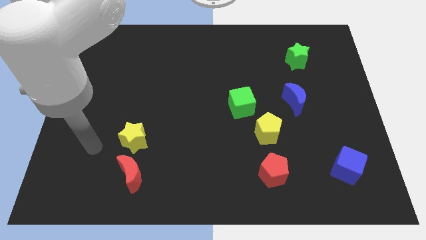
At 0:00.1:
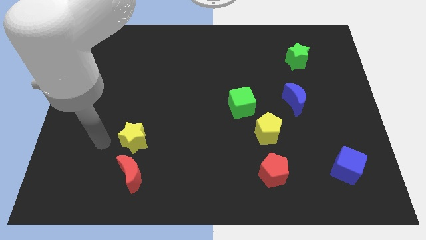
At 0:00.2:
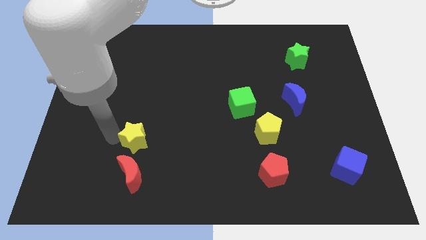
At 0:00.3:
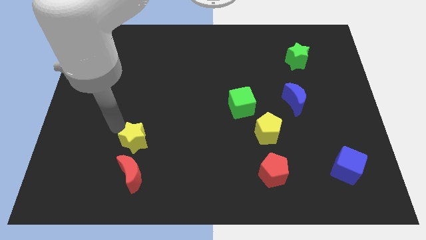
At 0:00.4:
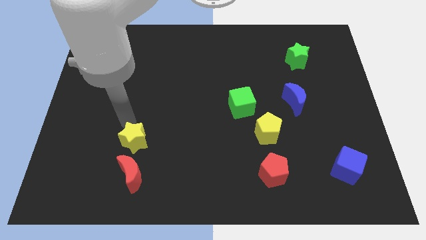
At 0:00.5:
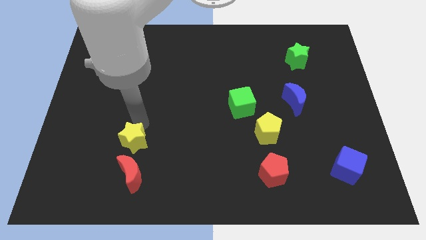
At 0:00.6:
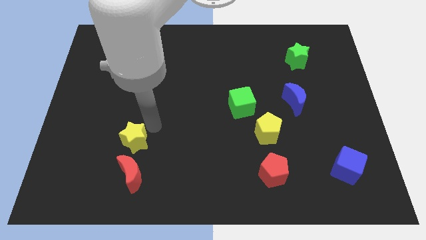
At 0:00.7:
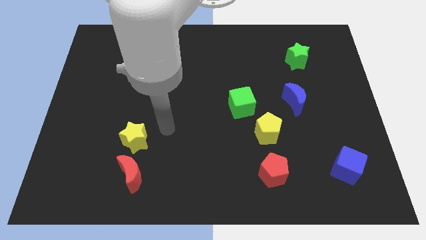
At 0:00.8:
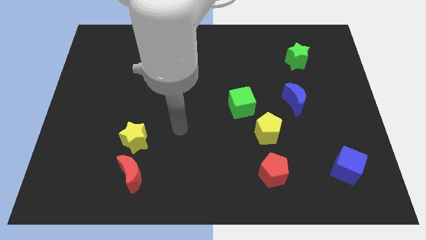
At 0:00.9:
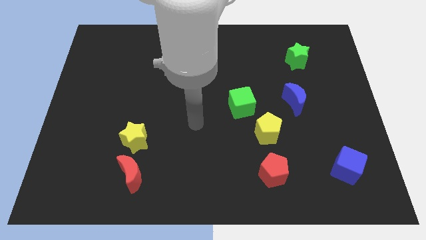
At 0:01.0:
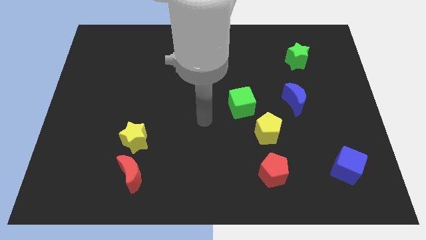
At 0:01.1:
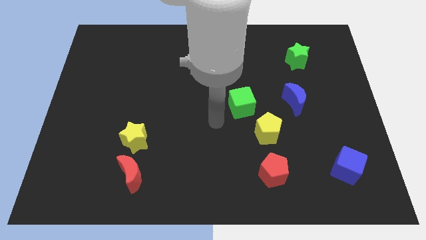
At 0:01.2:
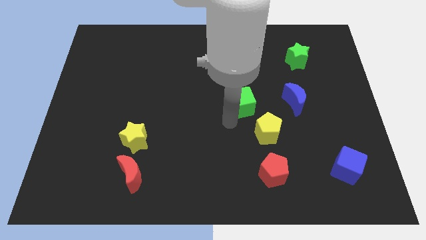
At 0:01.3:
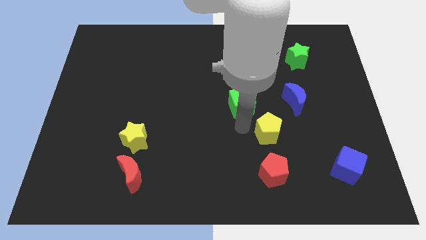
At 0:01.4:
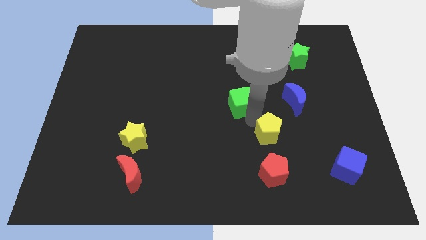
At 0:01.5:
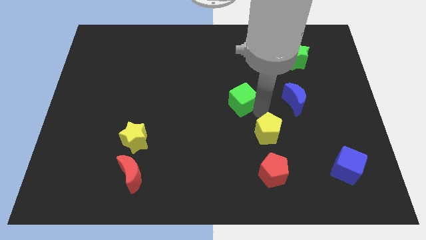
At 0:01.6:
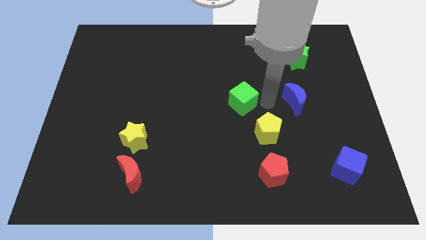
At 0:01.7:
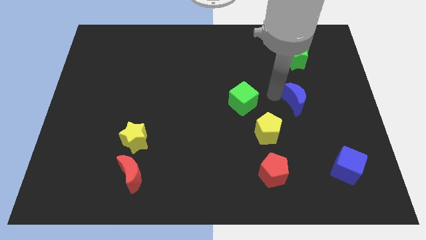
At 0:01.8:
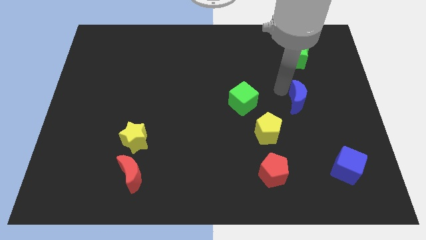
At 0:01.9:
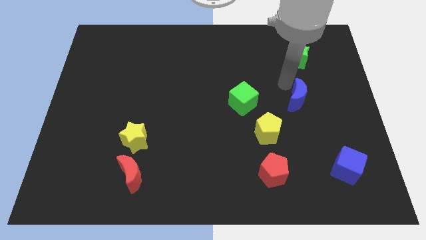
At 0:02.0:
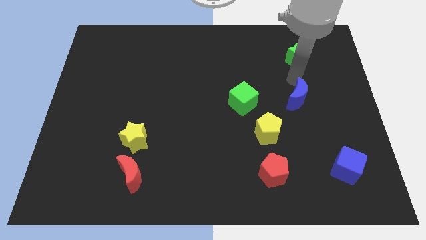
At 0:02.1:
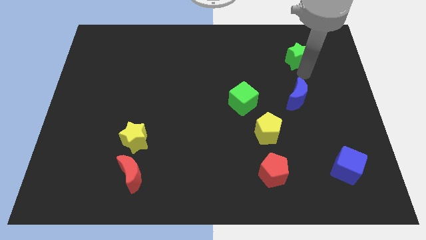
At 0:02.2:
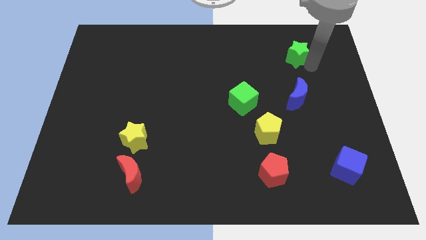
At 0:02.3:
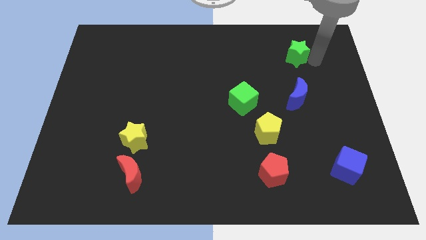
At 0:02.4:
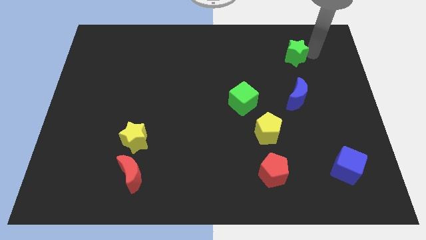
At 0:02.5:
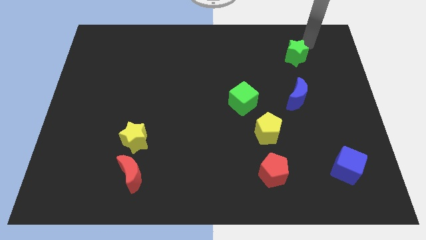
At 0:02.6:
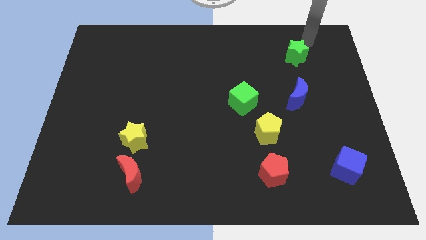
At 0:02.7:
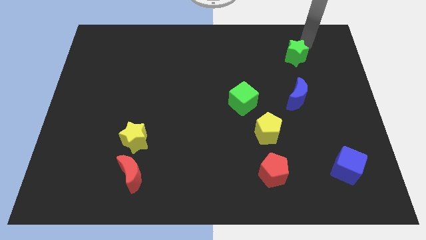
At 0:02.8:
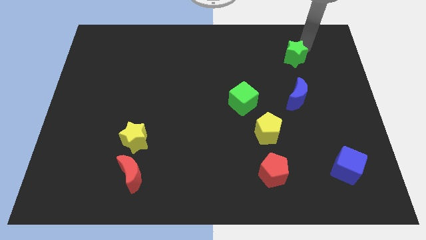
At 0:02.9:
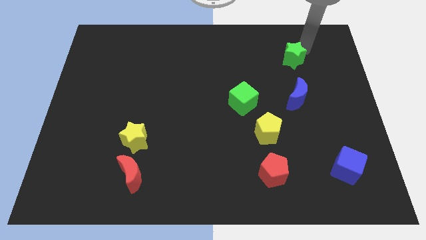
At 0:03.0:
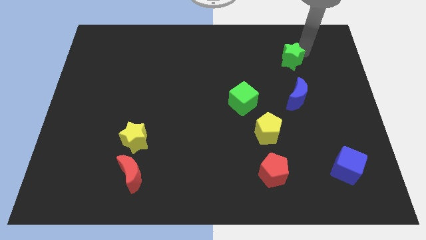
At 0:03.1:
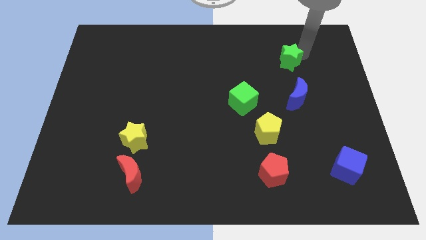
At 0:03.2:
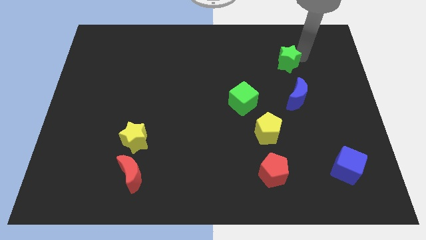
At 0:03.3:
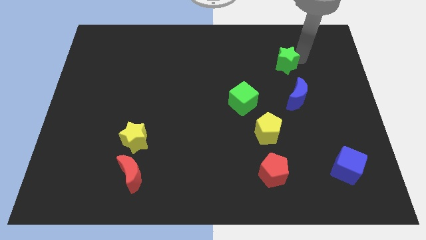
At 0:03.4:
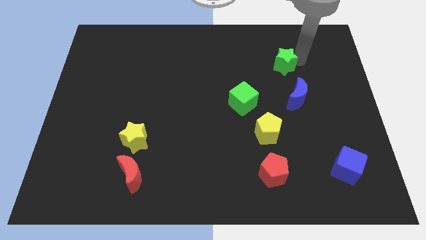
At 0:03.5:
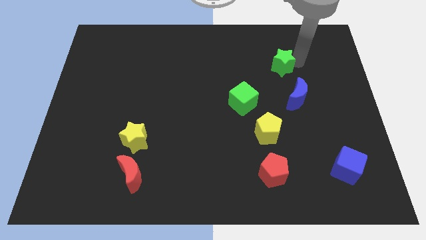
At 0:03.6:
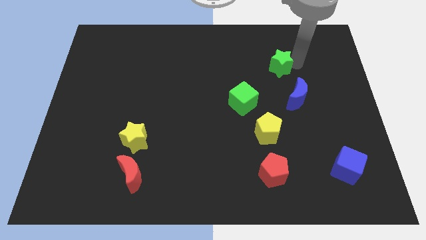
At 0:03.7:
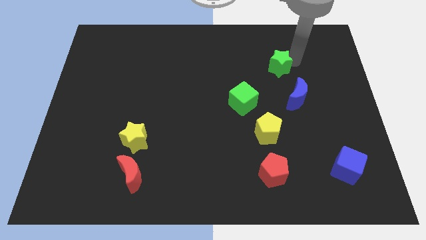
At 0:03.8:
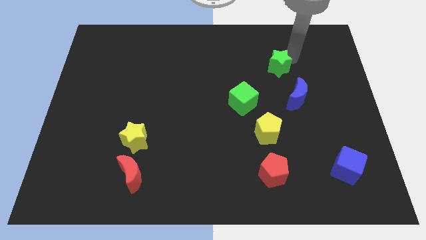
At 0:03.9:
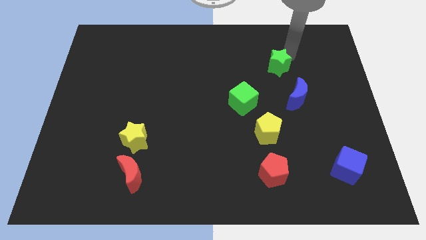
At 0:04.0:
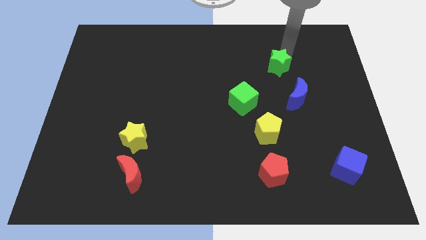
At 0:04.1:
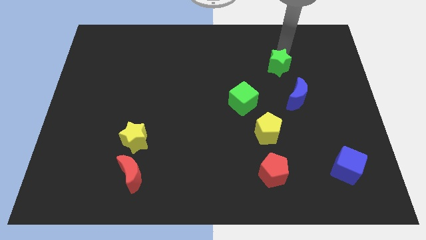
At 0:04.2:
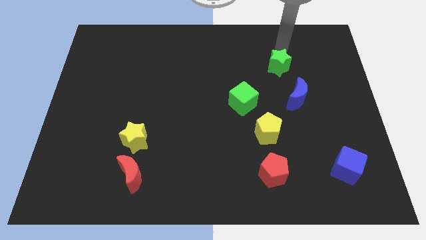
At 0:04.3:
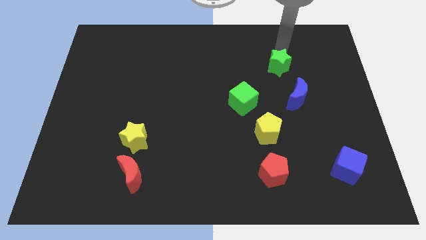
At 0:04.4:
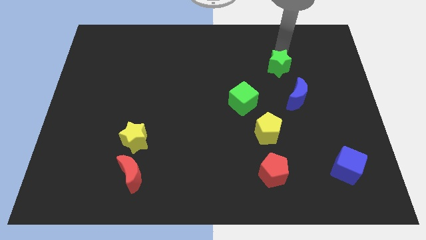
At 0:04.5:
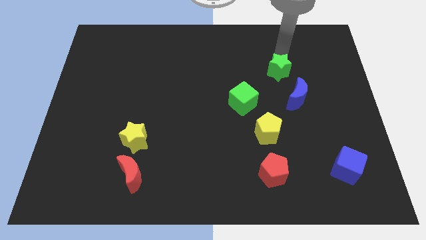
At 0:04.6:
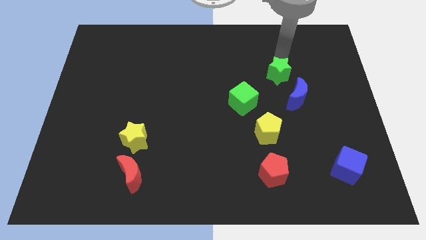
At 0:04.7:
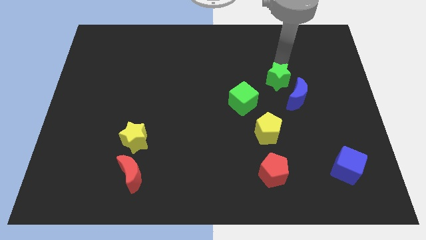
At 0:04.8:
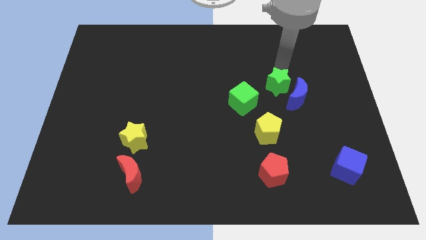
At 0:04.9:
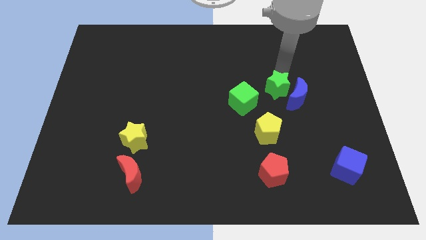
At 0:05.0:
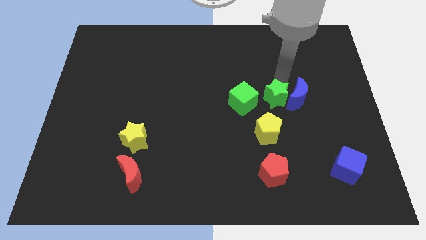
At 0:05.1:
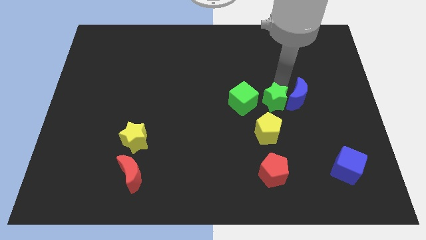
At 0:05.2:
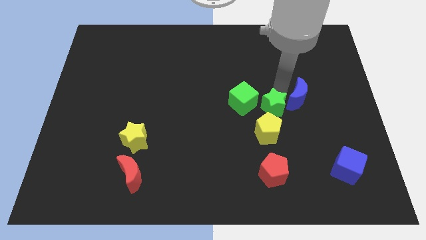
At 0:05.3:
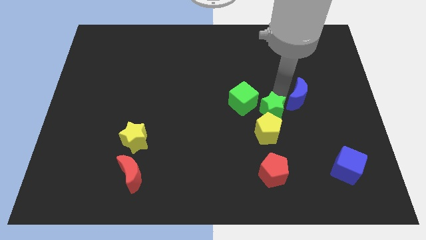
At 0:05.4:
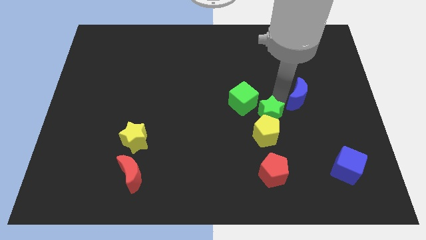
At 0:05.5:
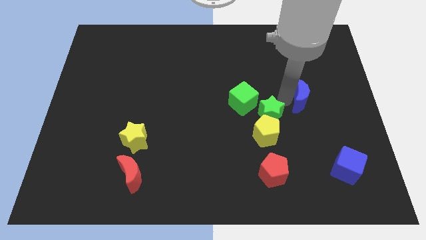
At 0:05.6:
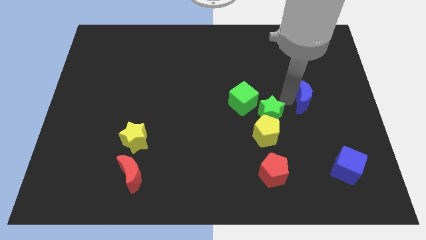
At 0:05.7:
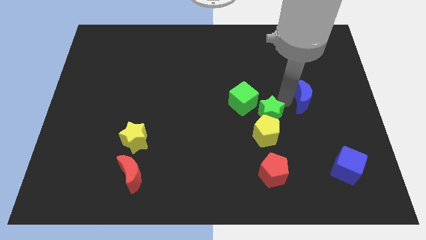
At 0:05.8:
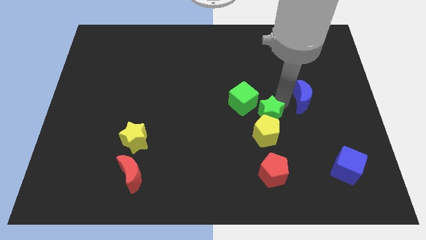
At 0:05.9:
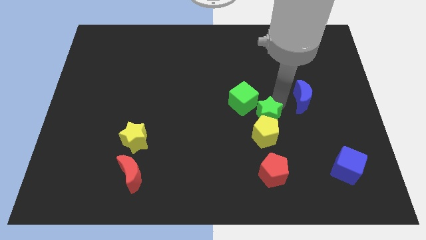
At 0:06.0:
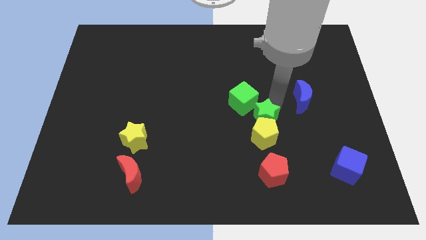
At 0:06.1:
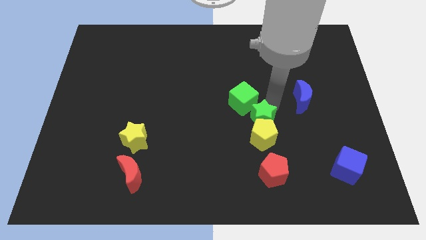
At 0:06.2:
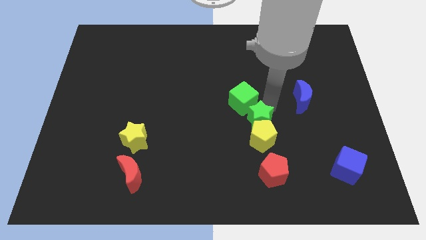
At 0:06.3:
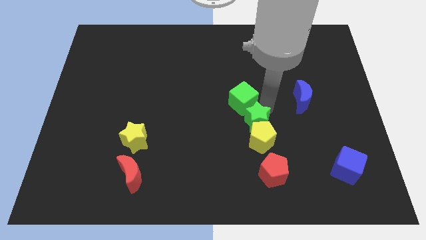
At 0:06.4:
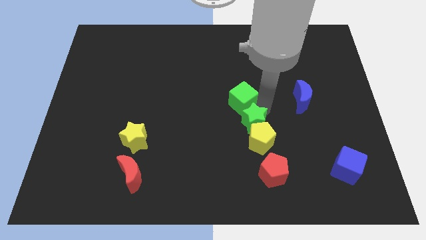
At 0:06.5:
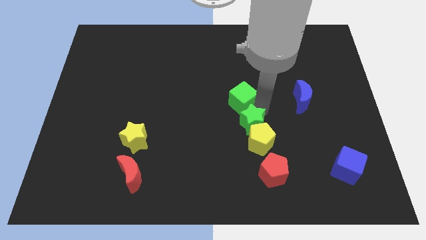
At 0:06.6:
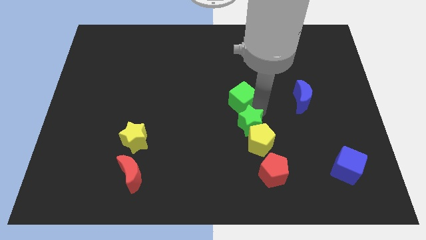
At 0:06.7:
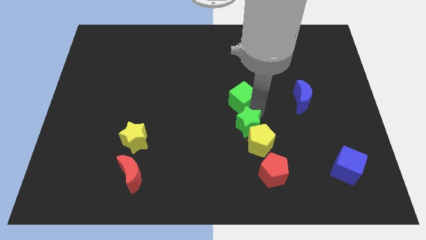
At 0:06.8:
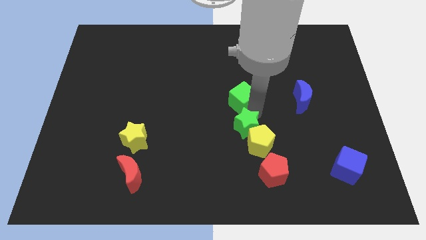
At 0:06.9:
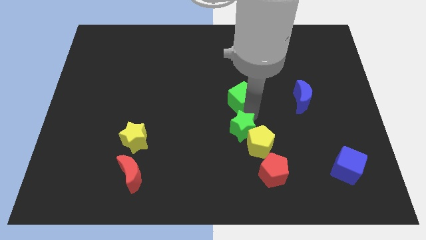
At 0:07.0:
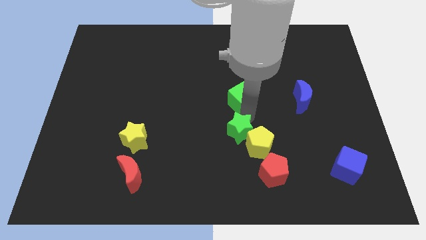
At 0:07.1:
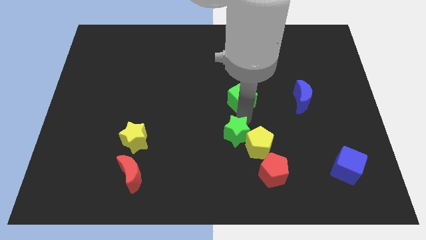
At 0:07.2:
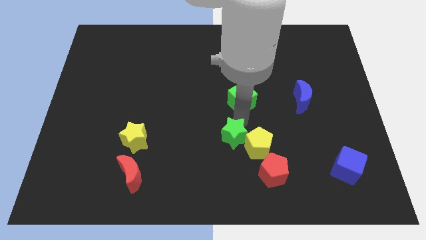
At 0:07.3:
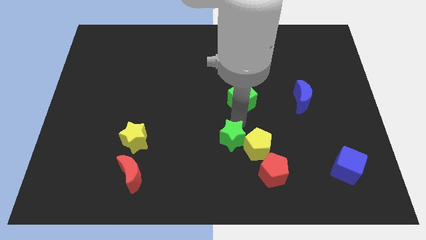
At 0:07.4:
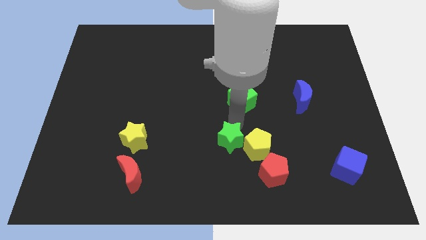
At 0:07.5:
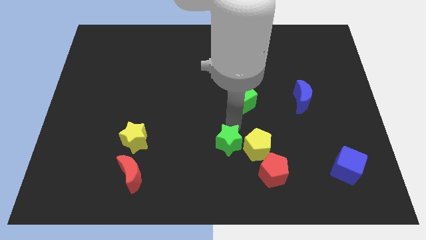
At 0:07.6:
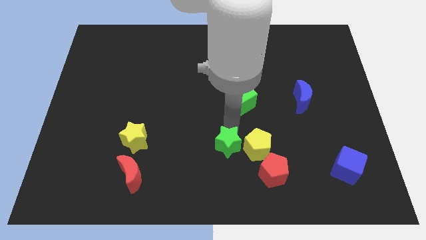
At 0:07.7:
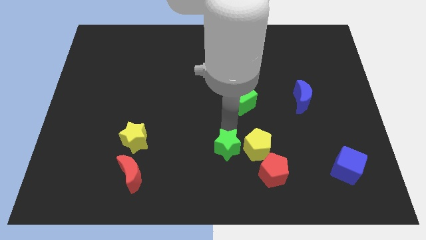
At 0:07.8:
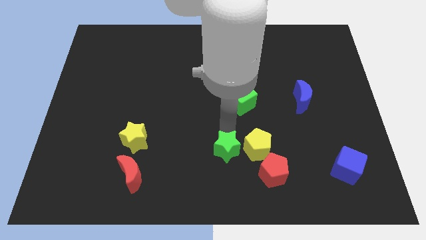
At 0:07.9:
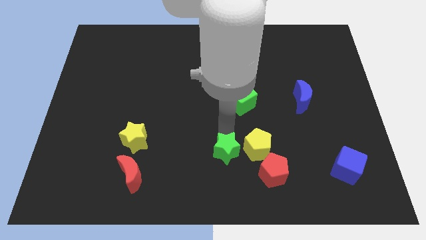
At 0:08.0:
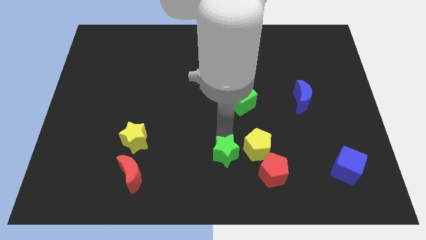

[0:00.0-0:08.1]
put the green star to the bottom
